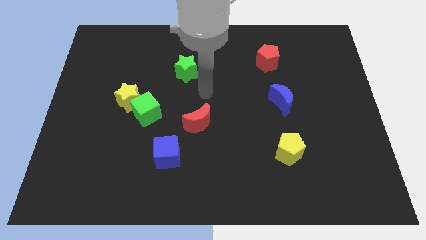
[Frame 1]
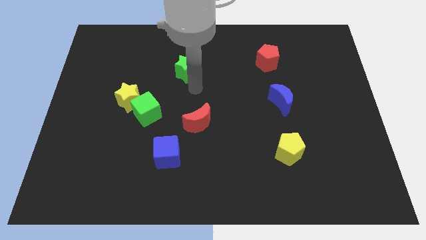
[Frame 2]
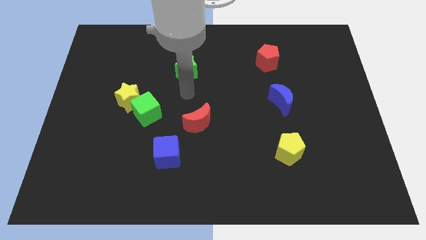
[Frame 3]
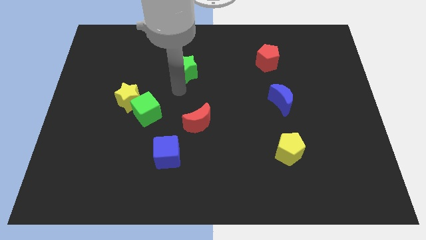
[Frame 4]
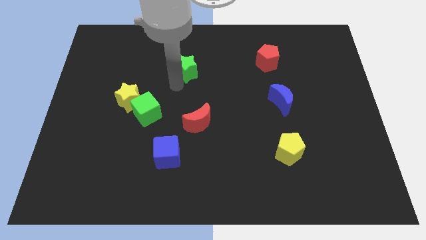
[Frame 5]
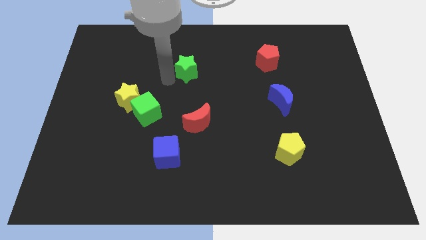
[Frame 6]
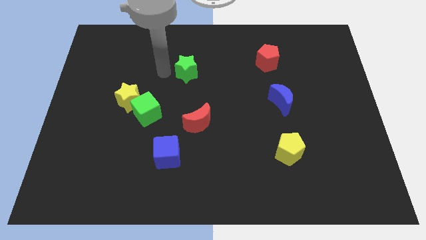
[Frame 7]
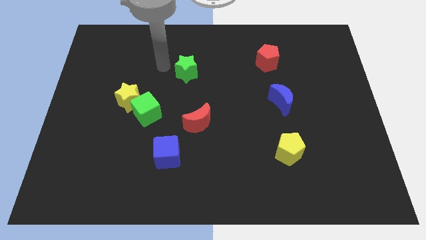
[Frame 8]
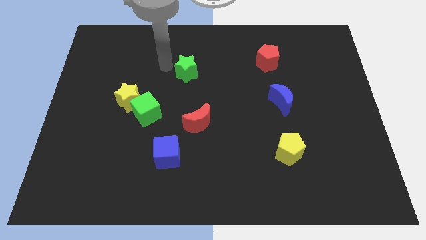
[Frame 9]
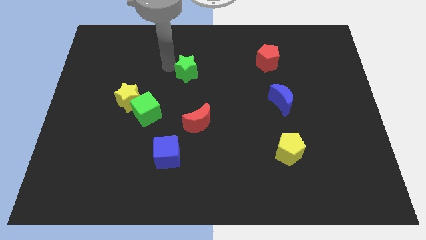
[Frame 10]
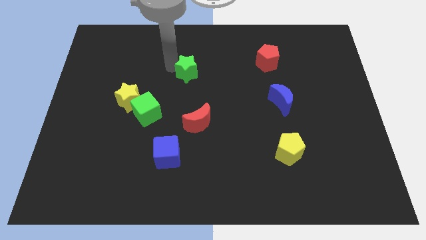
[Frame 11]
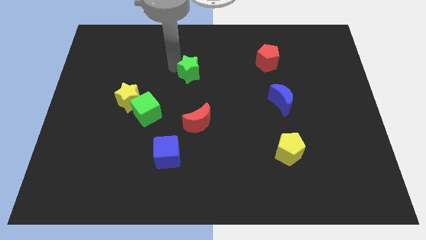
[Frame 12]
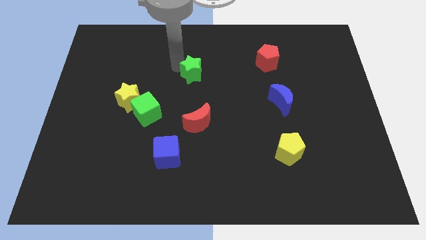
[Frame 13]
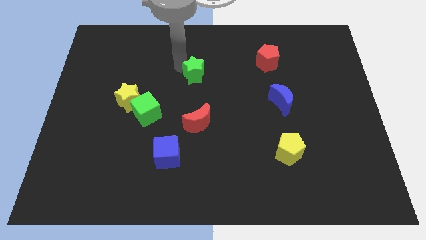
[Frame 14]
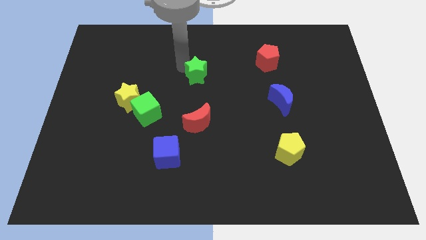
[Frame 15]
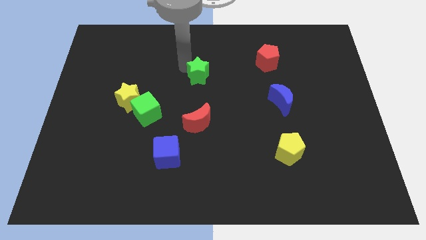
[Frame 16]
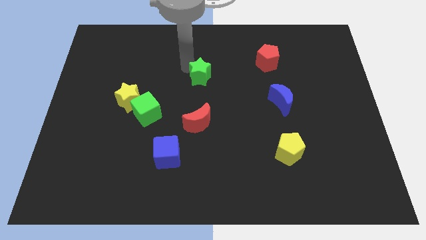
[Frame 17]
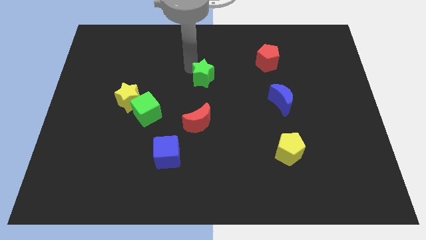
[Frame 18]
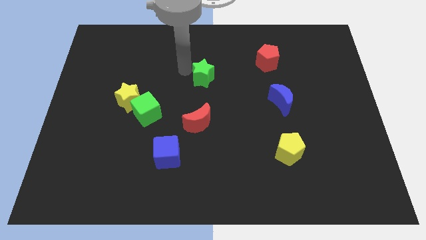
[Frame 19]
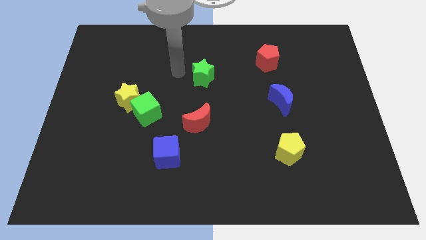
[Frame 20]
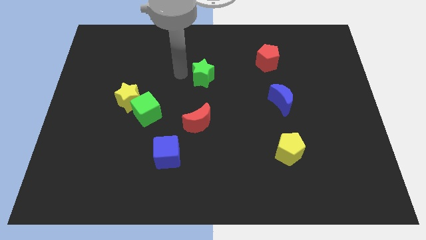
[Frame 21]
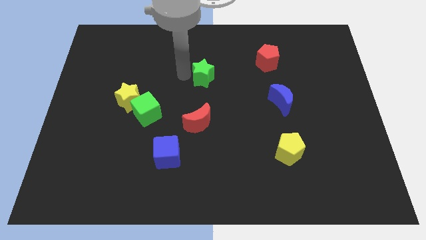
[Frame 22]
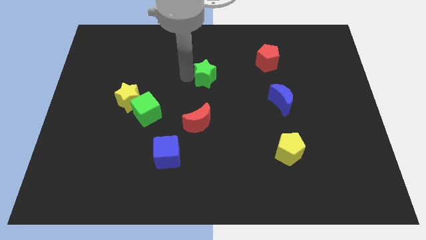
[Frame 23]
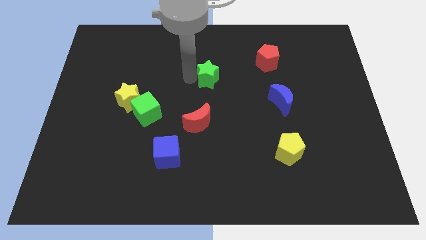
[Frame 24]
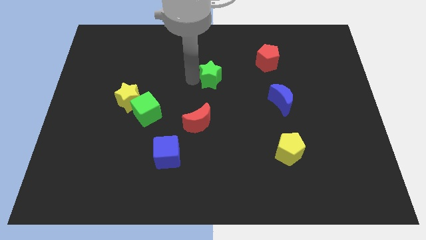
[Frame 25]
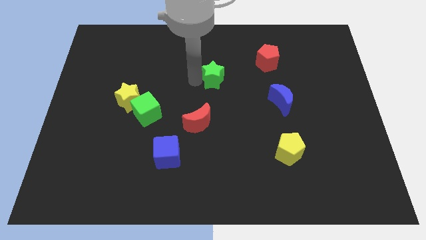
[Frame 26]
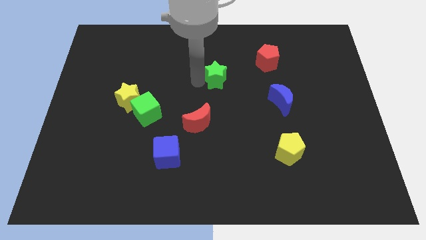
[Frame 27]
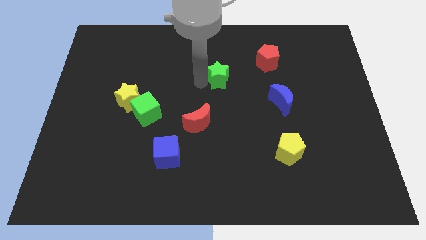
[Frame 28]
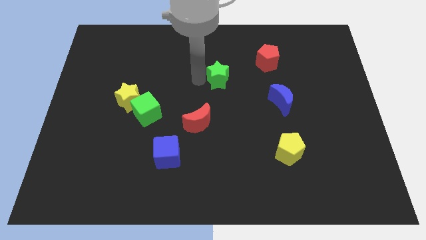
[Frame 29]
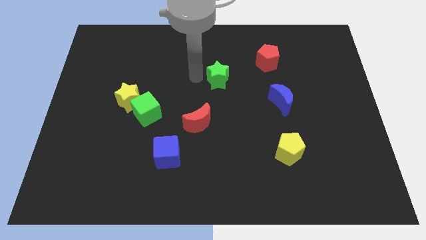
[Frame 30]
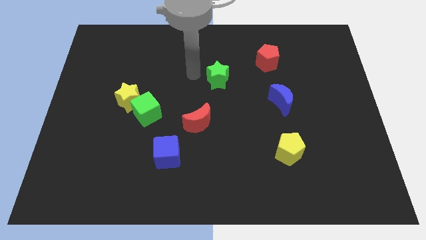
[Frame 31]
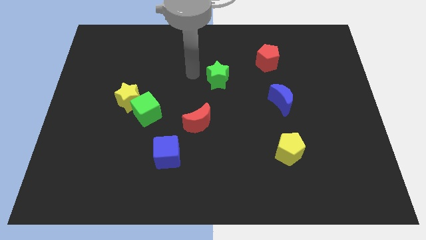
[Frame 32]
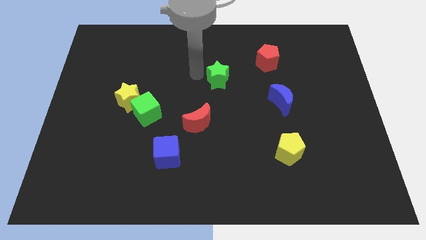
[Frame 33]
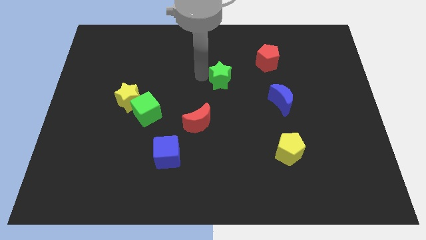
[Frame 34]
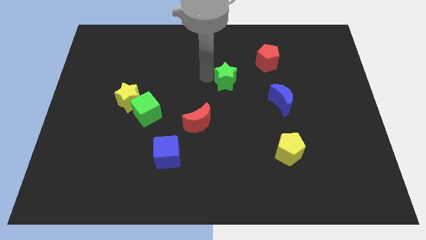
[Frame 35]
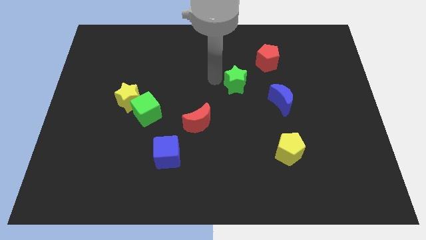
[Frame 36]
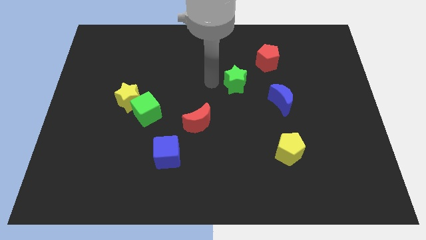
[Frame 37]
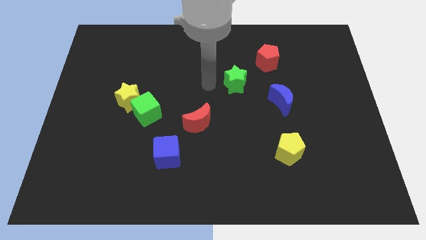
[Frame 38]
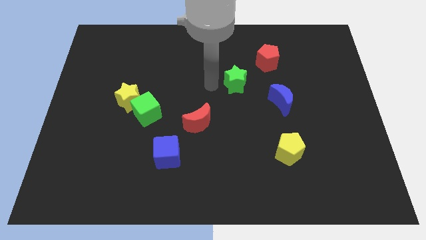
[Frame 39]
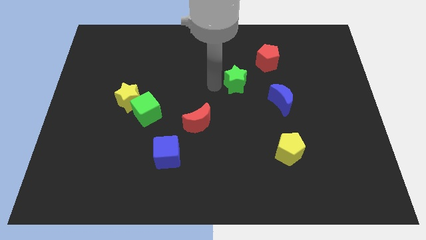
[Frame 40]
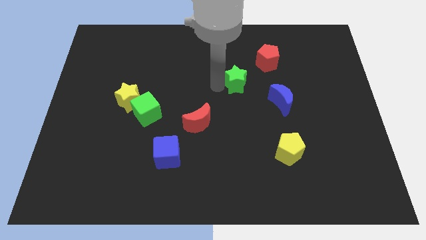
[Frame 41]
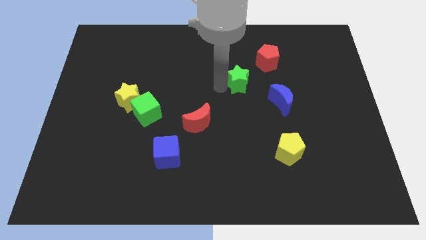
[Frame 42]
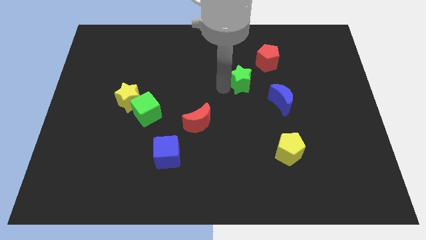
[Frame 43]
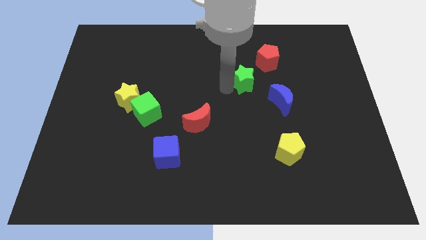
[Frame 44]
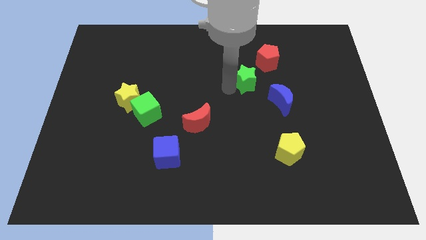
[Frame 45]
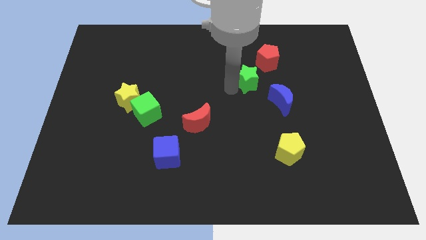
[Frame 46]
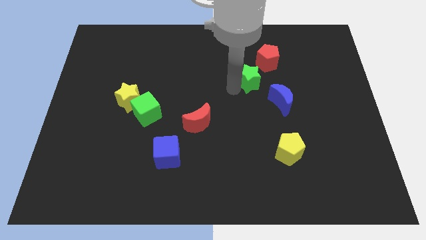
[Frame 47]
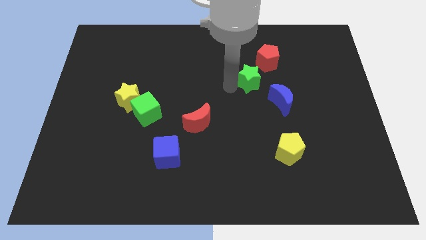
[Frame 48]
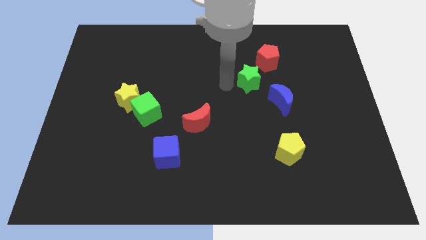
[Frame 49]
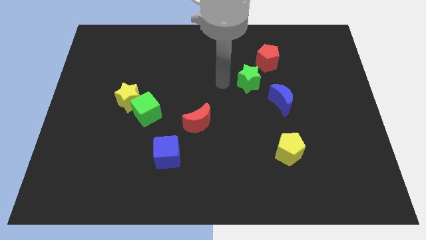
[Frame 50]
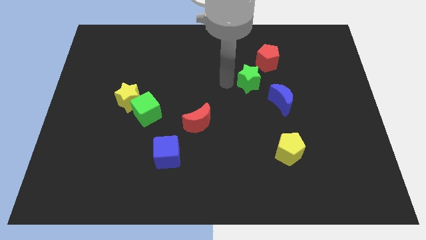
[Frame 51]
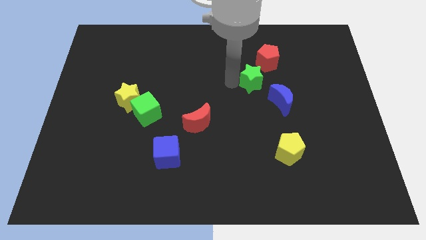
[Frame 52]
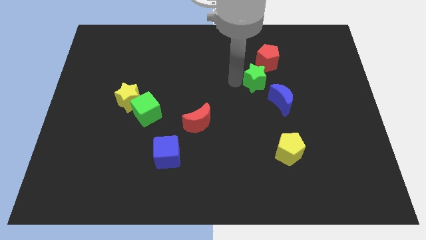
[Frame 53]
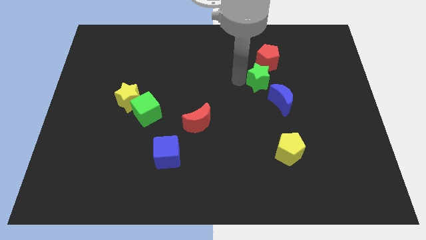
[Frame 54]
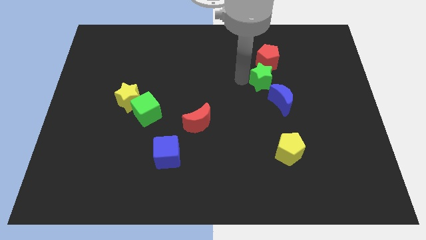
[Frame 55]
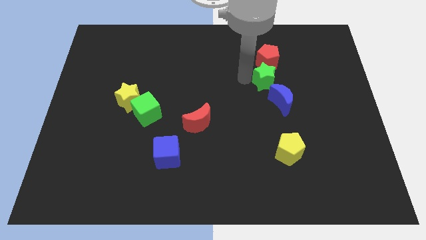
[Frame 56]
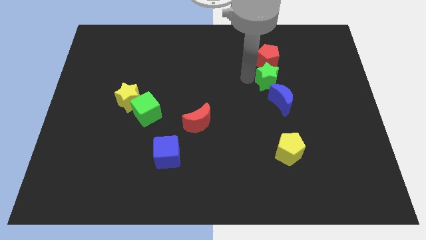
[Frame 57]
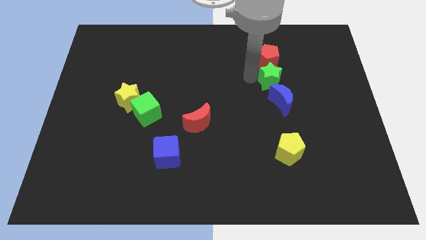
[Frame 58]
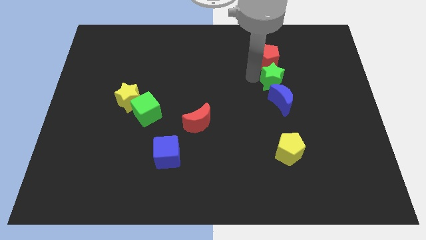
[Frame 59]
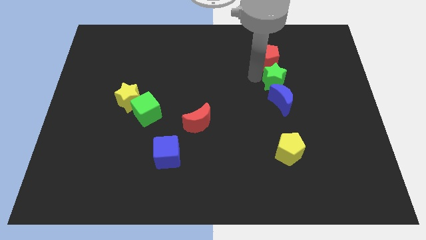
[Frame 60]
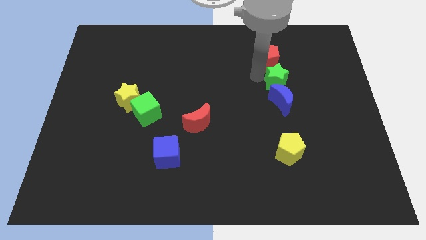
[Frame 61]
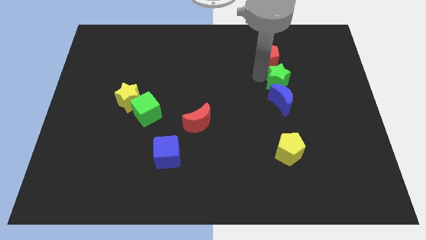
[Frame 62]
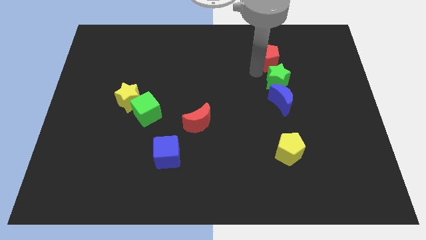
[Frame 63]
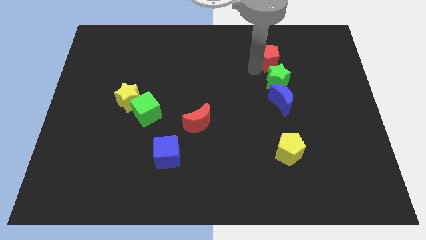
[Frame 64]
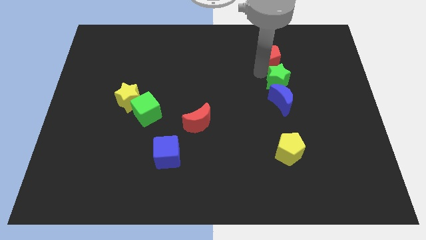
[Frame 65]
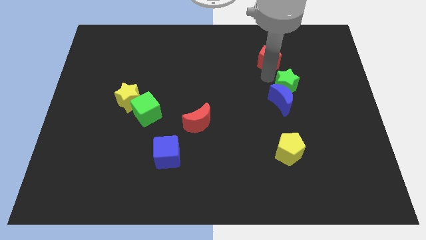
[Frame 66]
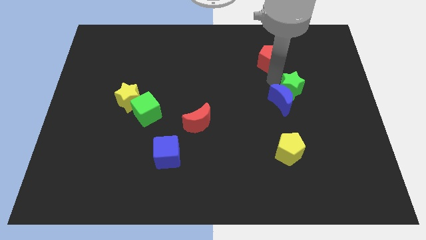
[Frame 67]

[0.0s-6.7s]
move the green star just right of the blue moon
